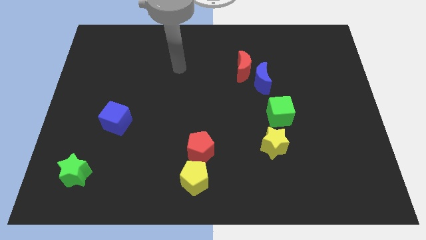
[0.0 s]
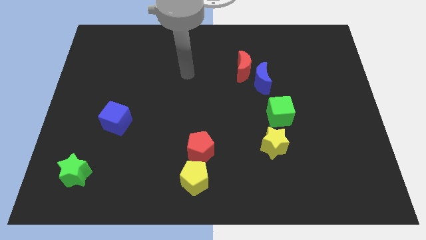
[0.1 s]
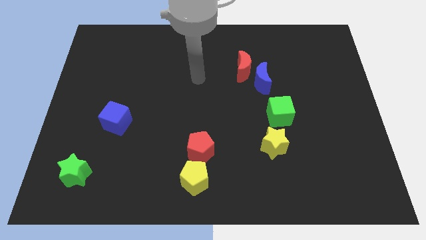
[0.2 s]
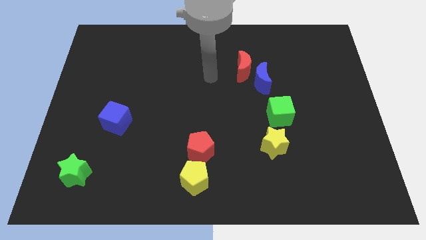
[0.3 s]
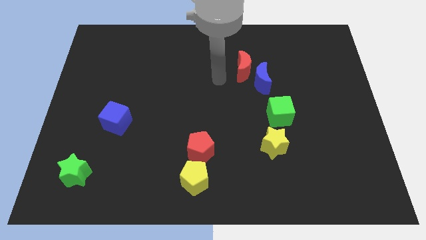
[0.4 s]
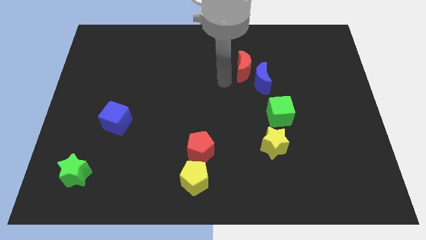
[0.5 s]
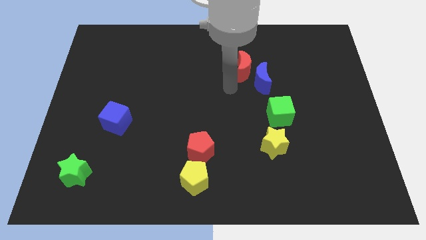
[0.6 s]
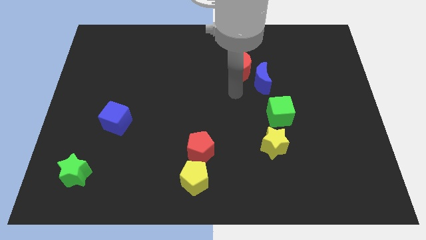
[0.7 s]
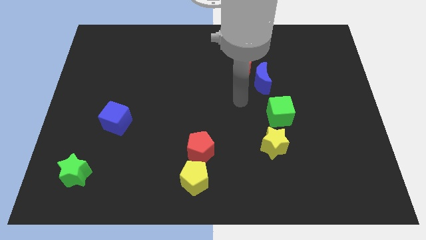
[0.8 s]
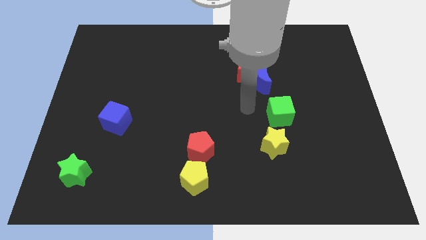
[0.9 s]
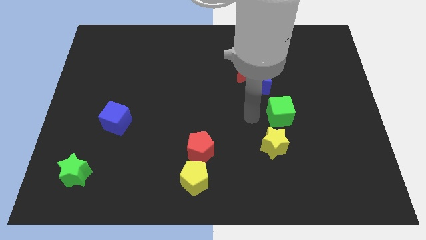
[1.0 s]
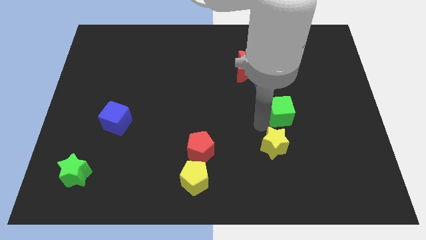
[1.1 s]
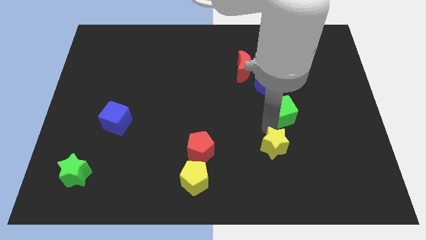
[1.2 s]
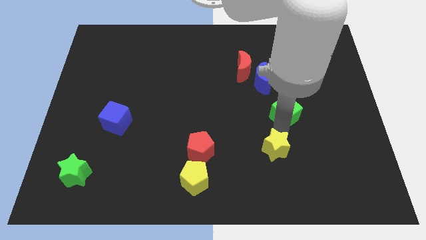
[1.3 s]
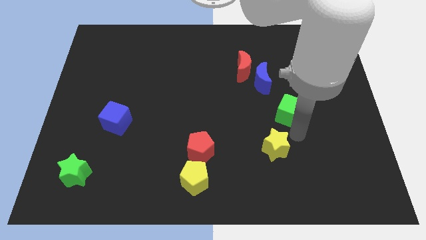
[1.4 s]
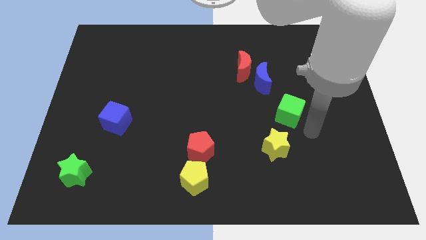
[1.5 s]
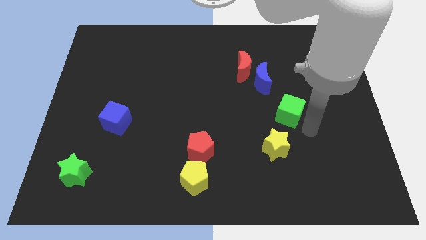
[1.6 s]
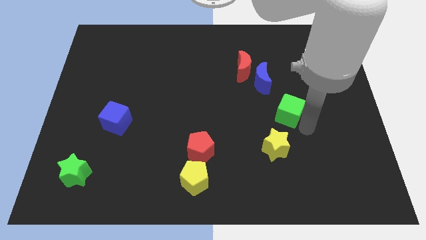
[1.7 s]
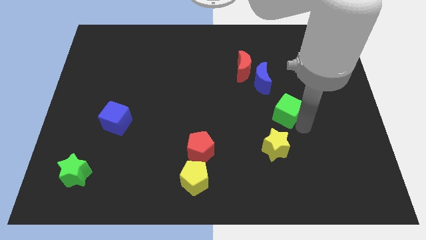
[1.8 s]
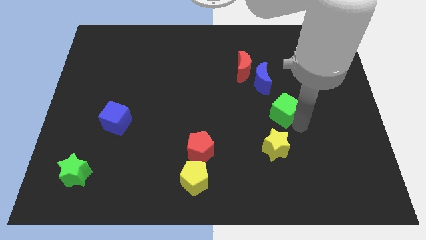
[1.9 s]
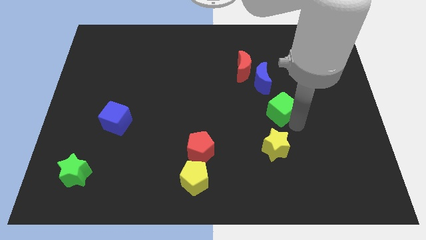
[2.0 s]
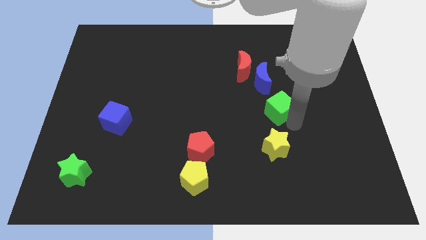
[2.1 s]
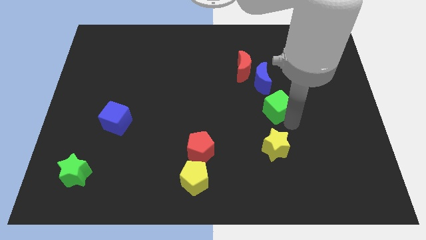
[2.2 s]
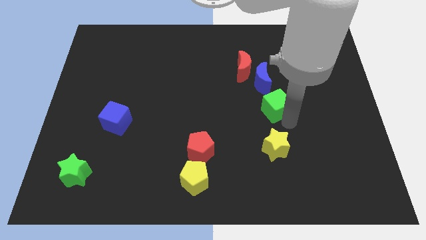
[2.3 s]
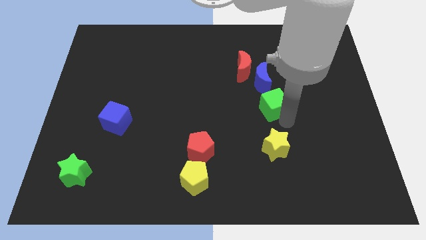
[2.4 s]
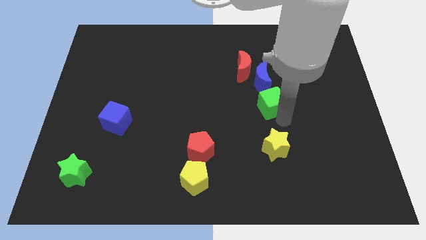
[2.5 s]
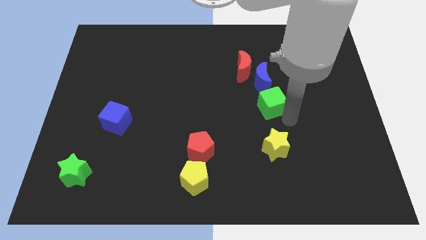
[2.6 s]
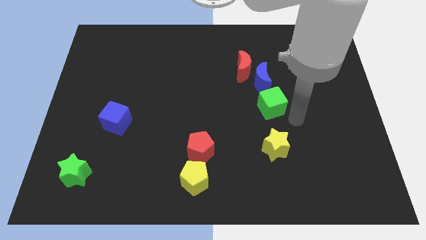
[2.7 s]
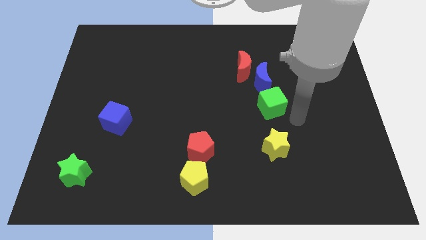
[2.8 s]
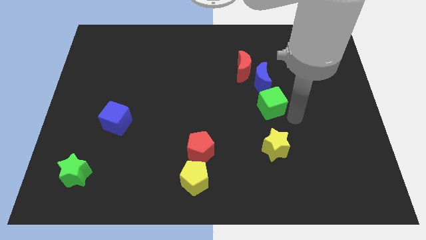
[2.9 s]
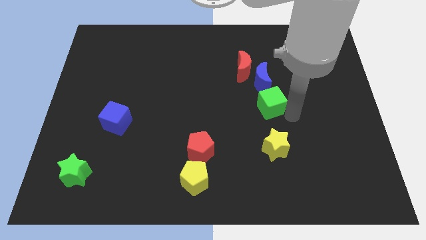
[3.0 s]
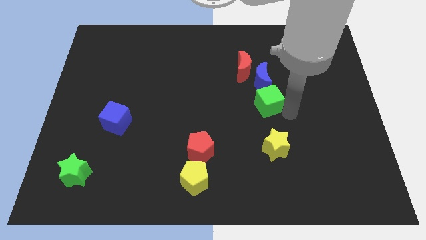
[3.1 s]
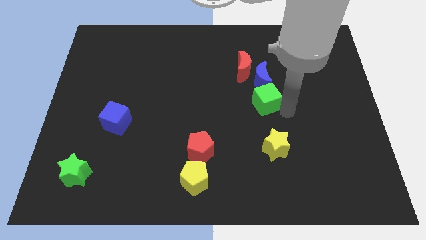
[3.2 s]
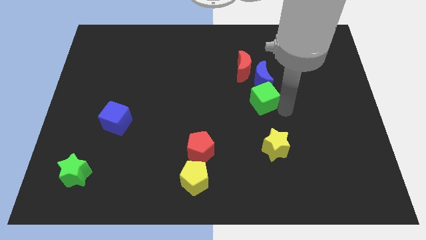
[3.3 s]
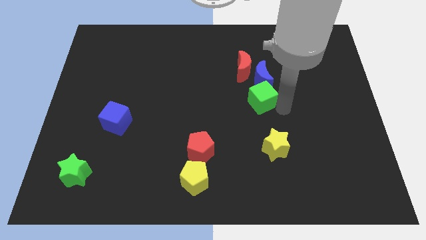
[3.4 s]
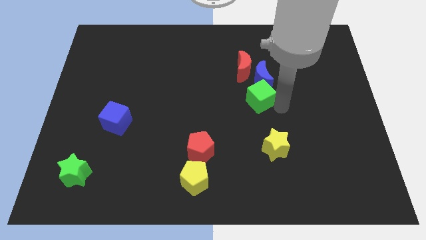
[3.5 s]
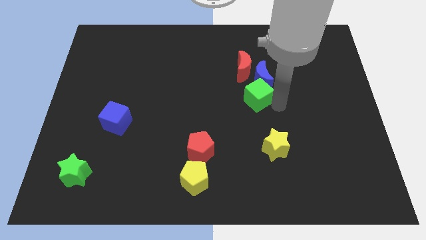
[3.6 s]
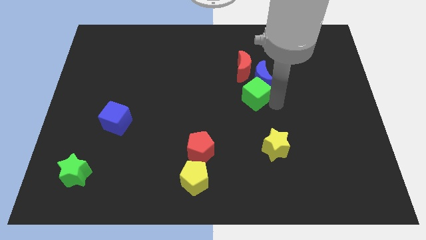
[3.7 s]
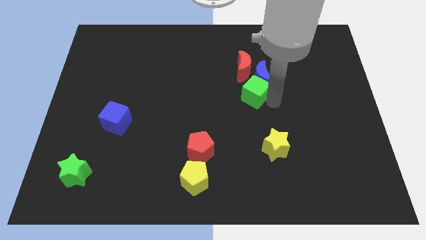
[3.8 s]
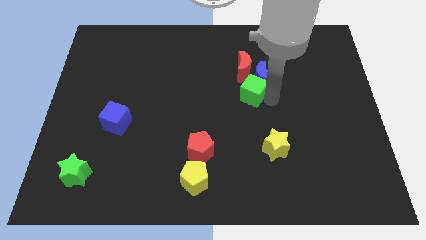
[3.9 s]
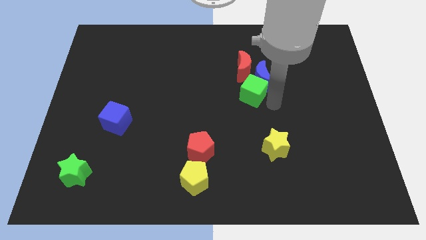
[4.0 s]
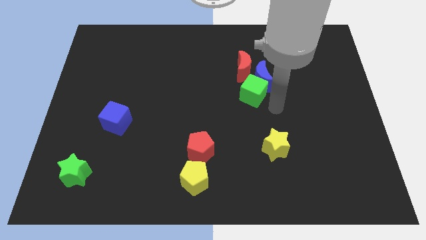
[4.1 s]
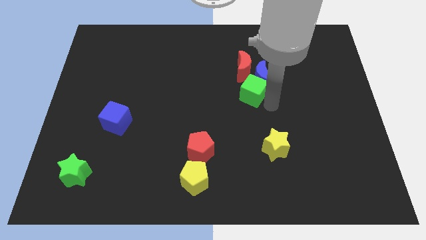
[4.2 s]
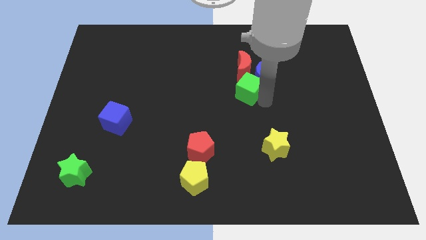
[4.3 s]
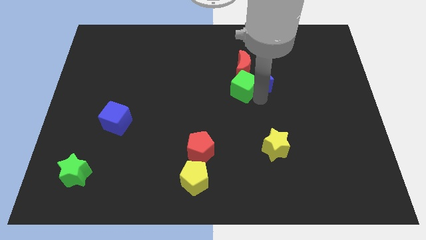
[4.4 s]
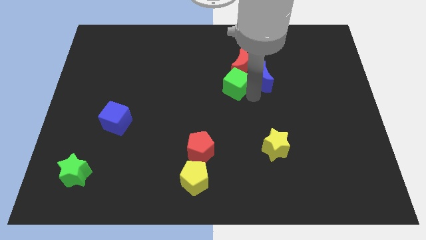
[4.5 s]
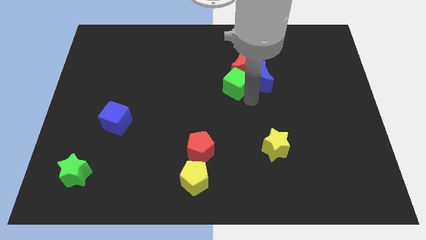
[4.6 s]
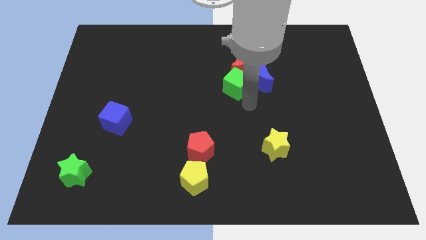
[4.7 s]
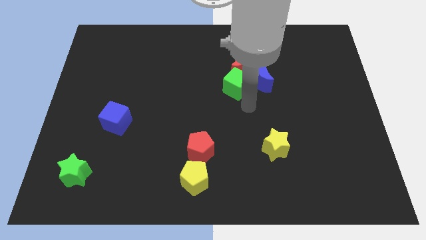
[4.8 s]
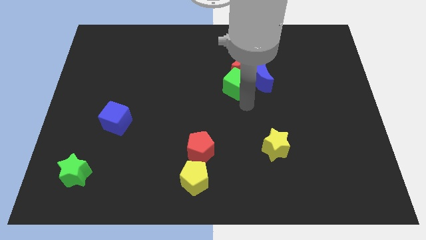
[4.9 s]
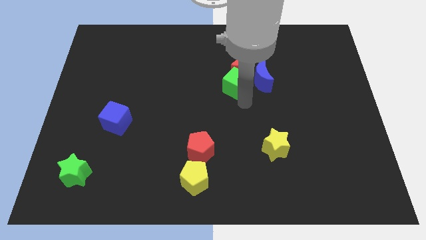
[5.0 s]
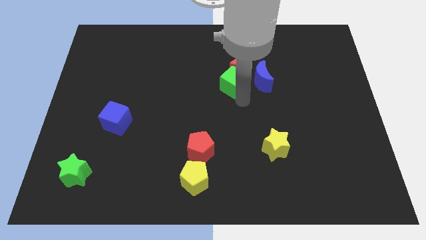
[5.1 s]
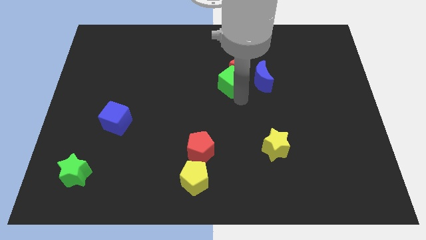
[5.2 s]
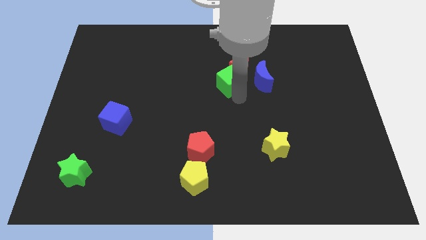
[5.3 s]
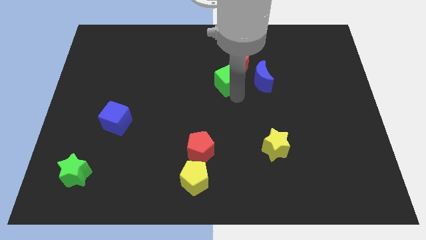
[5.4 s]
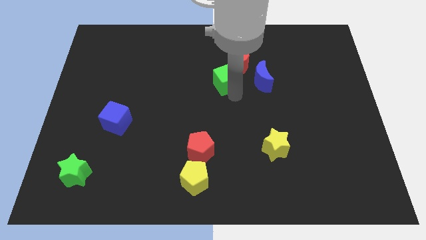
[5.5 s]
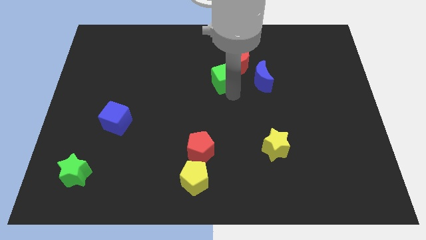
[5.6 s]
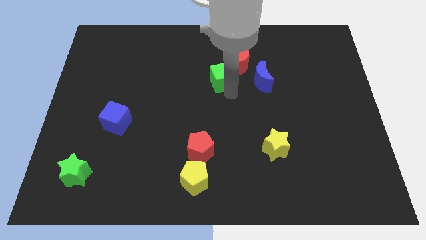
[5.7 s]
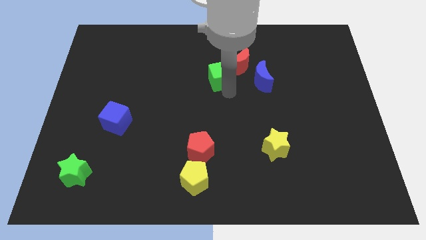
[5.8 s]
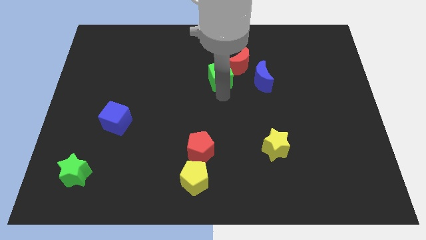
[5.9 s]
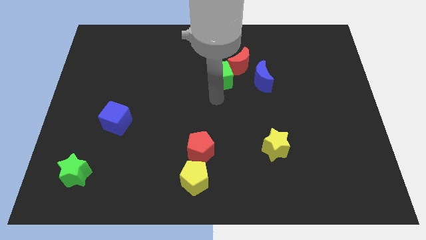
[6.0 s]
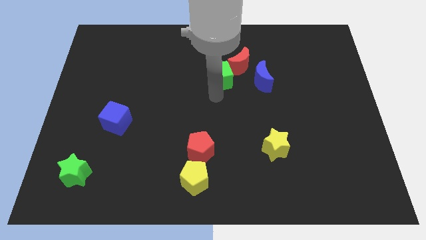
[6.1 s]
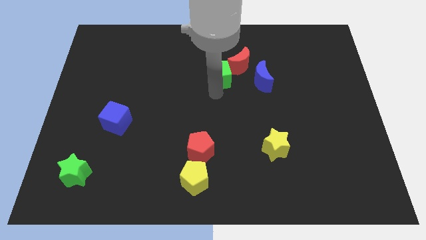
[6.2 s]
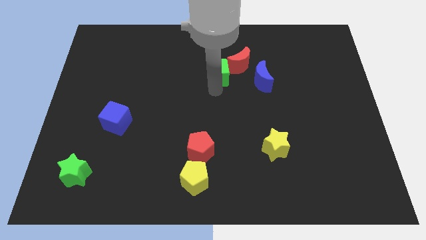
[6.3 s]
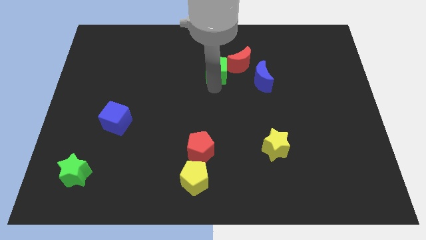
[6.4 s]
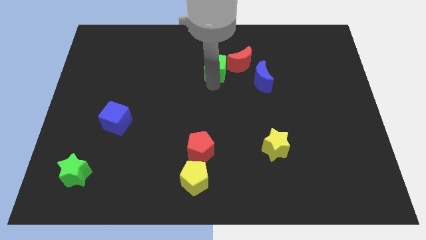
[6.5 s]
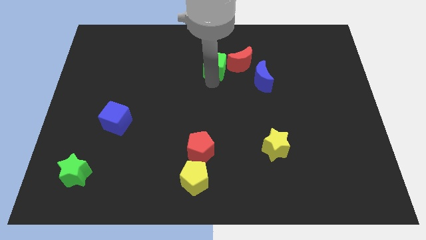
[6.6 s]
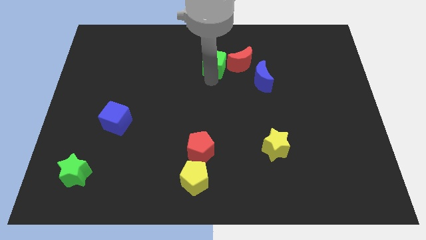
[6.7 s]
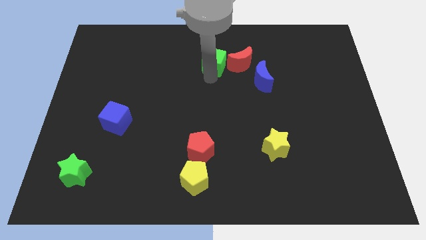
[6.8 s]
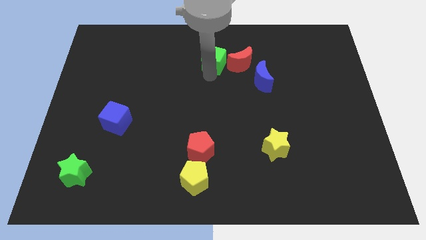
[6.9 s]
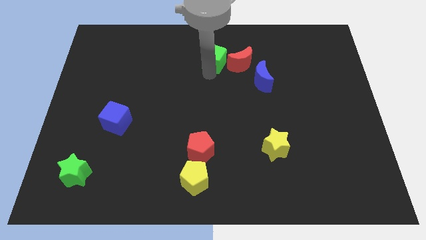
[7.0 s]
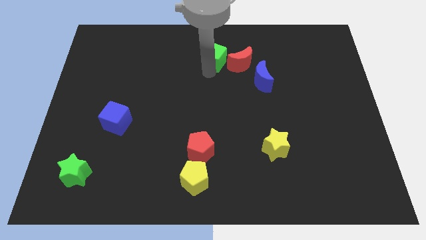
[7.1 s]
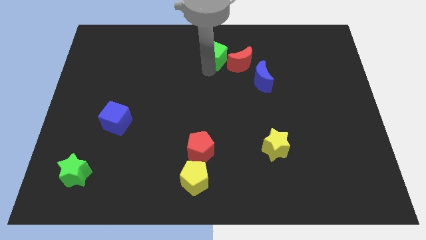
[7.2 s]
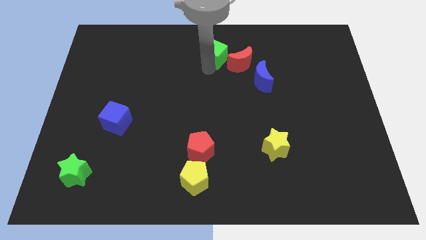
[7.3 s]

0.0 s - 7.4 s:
slide the green cube to the top
